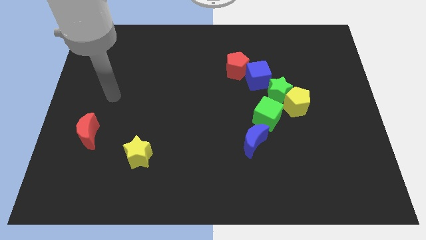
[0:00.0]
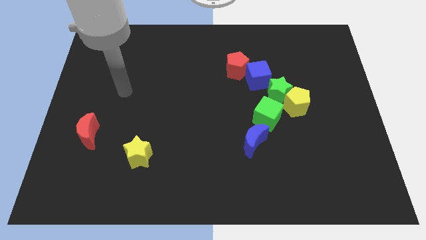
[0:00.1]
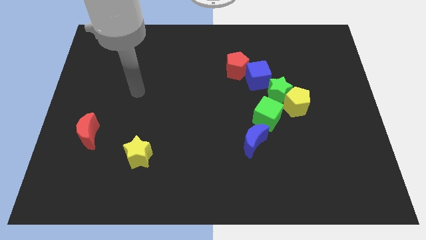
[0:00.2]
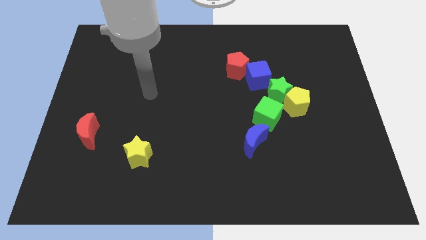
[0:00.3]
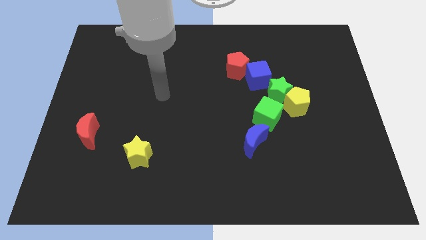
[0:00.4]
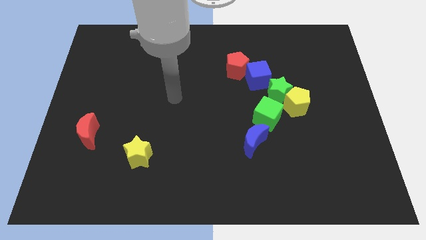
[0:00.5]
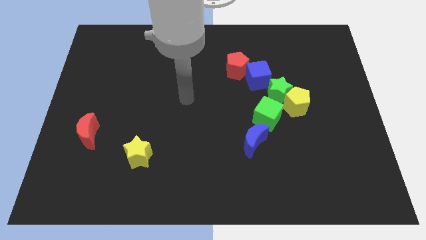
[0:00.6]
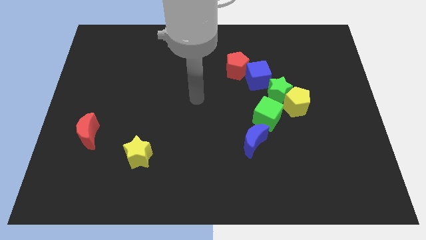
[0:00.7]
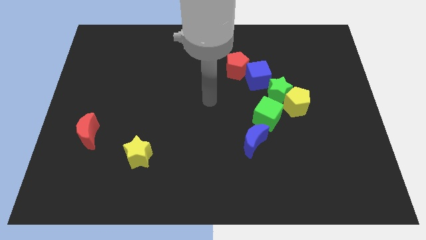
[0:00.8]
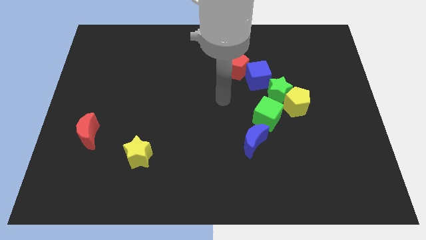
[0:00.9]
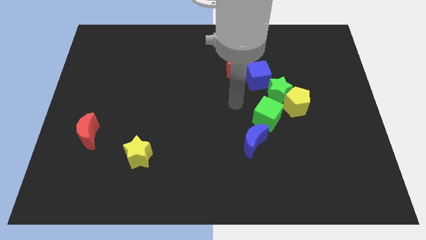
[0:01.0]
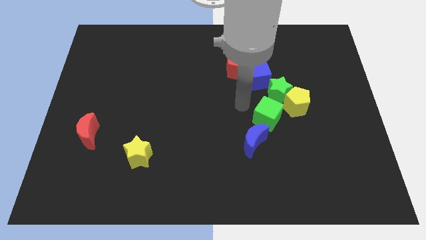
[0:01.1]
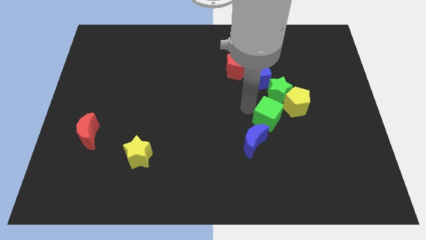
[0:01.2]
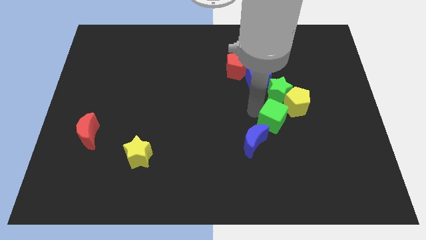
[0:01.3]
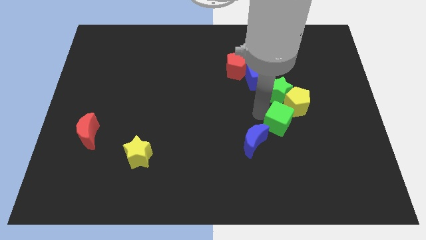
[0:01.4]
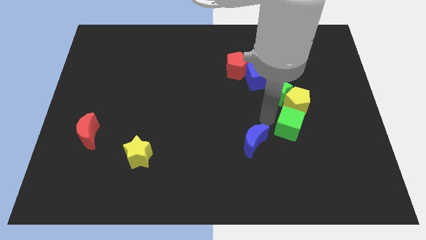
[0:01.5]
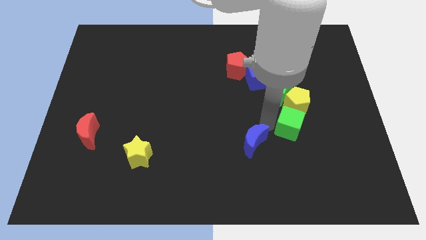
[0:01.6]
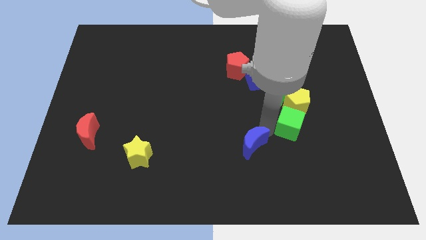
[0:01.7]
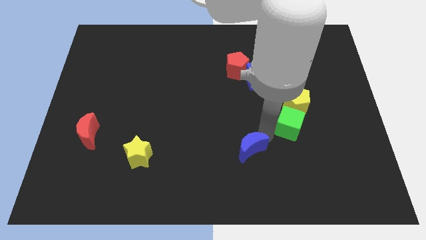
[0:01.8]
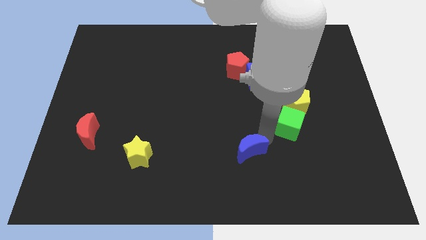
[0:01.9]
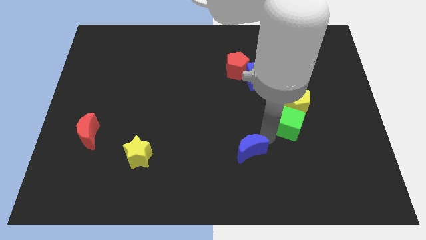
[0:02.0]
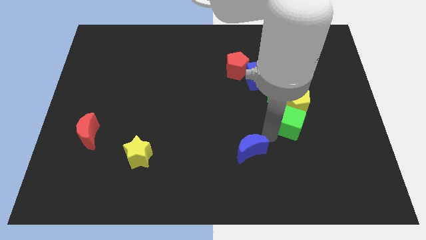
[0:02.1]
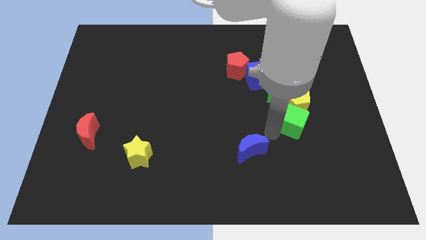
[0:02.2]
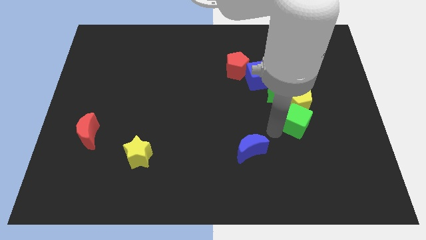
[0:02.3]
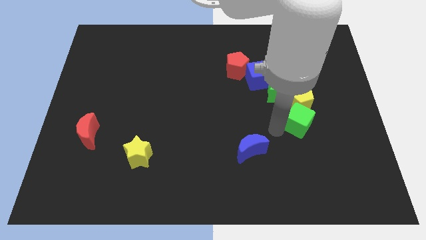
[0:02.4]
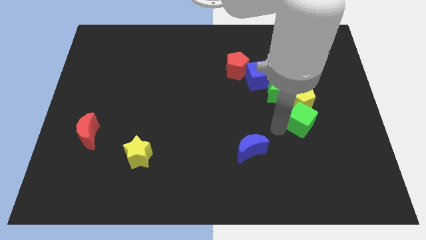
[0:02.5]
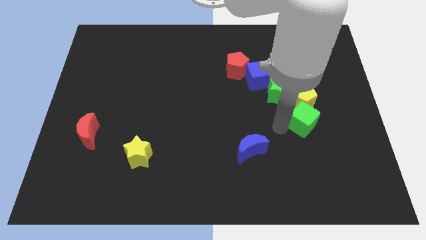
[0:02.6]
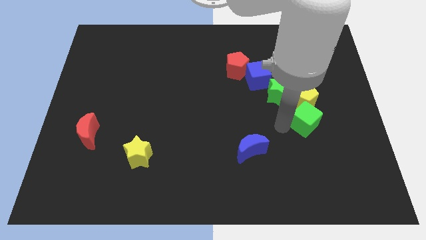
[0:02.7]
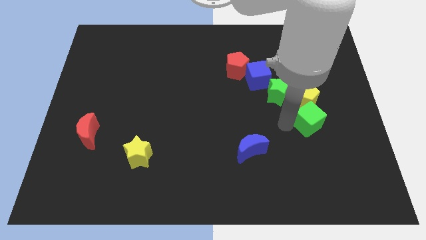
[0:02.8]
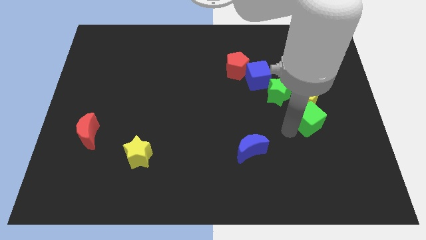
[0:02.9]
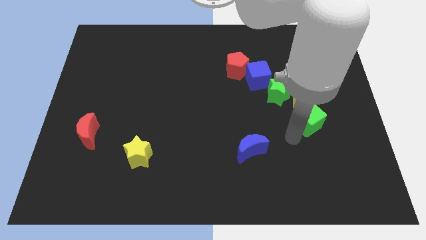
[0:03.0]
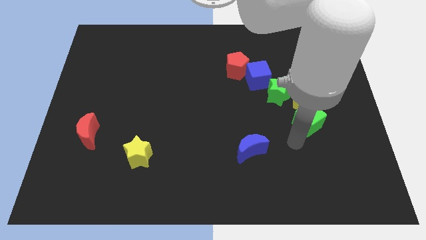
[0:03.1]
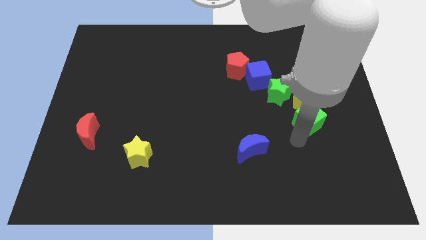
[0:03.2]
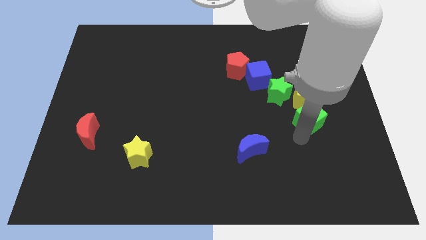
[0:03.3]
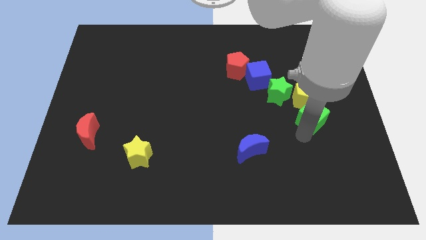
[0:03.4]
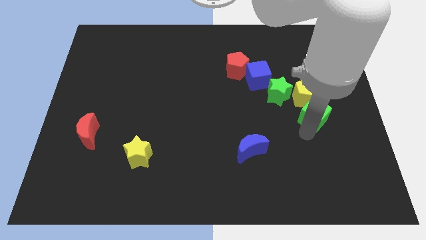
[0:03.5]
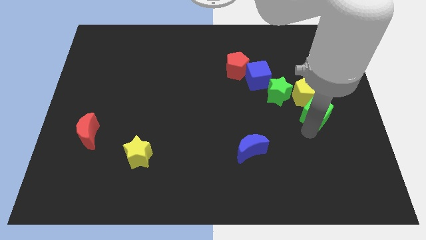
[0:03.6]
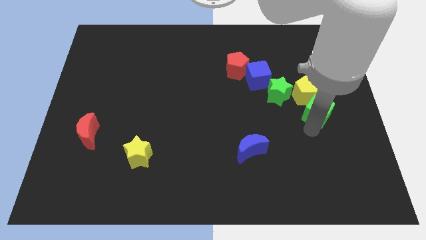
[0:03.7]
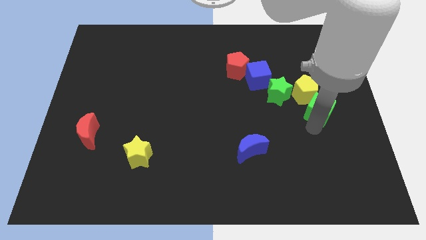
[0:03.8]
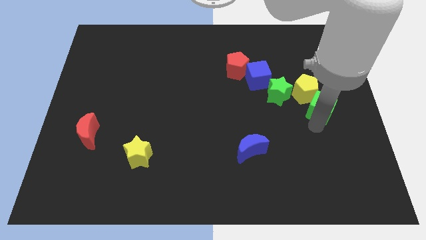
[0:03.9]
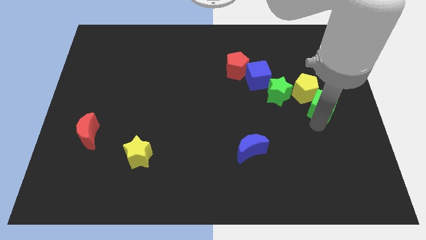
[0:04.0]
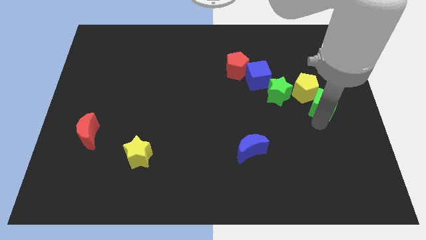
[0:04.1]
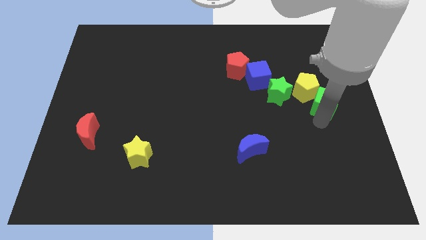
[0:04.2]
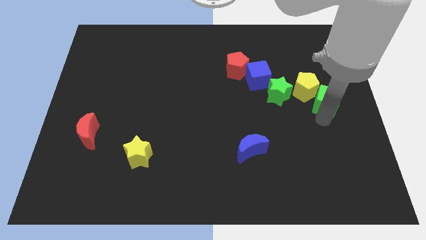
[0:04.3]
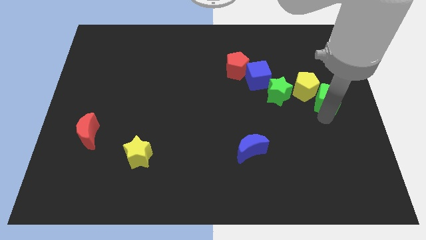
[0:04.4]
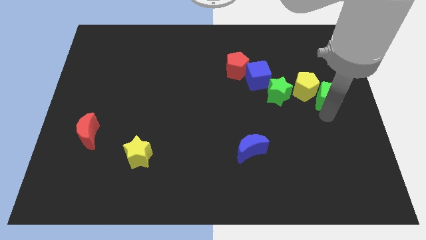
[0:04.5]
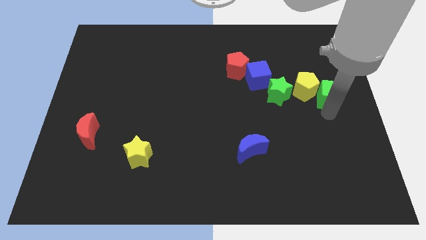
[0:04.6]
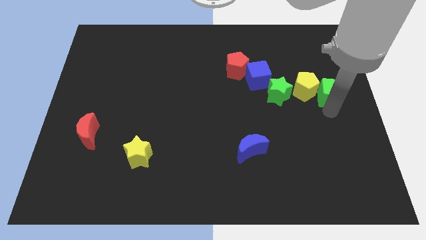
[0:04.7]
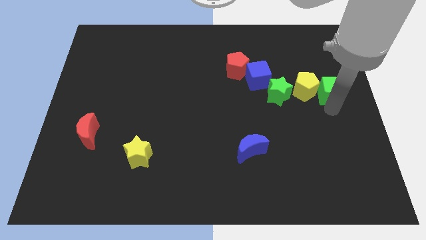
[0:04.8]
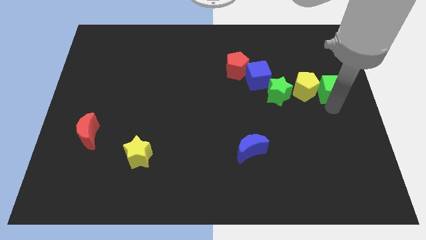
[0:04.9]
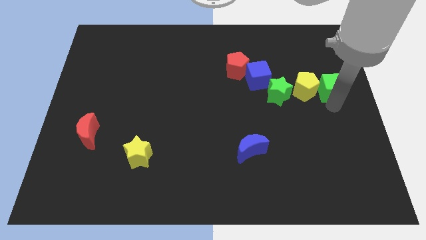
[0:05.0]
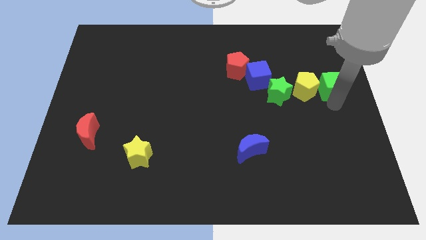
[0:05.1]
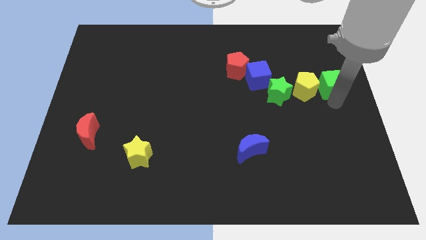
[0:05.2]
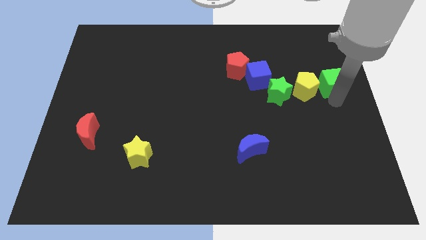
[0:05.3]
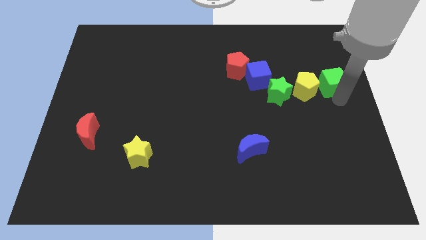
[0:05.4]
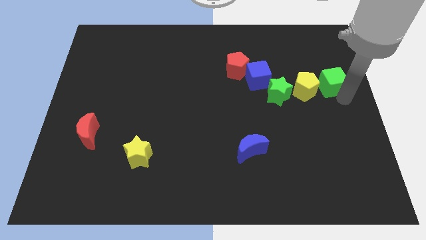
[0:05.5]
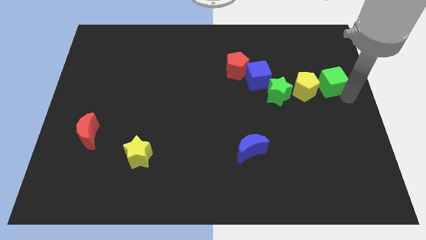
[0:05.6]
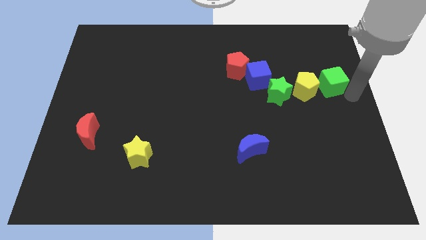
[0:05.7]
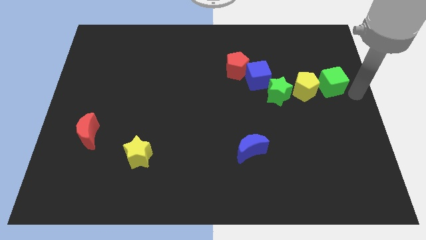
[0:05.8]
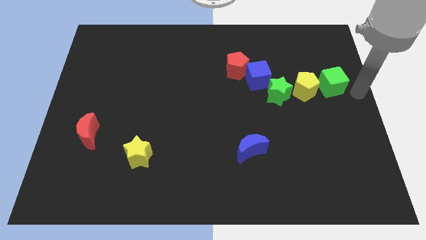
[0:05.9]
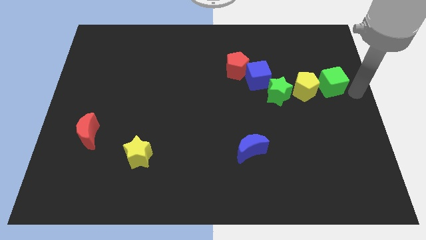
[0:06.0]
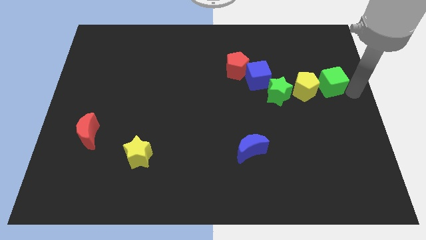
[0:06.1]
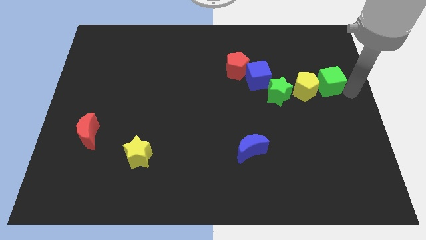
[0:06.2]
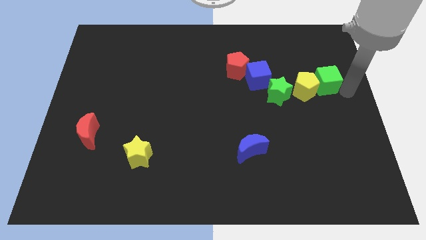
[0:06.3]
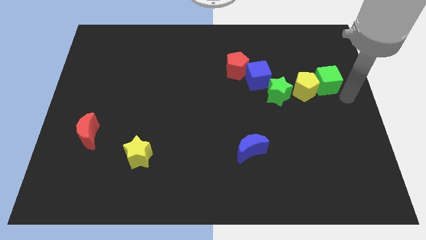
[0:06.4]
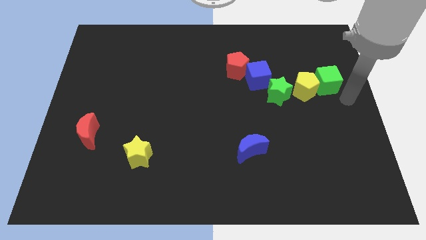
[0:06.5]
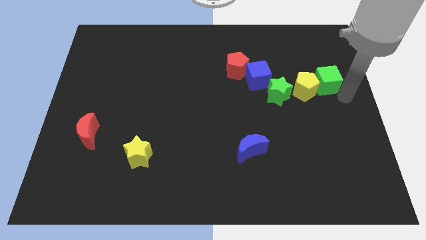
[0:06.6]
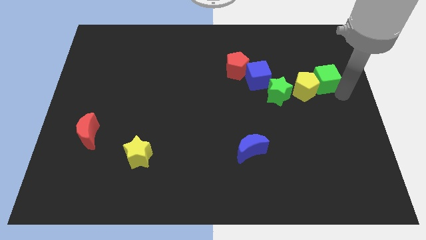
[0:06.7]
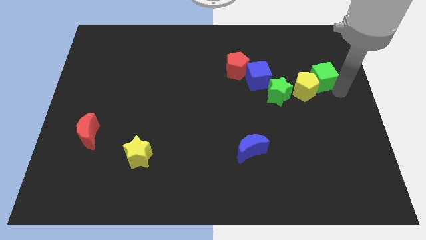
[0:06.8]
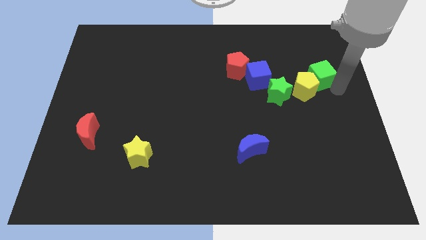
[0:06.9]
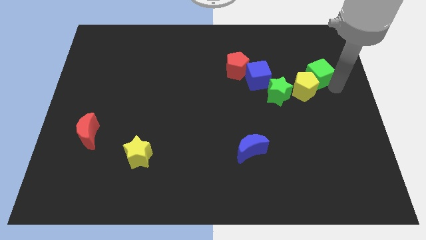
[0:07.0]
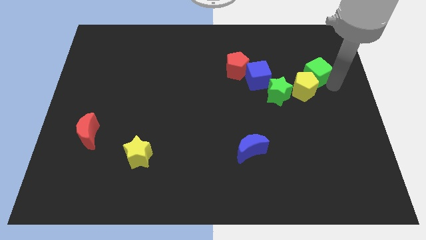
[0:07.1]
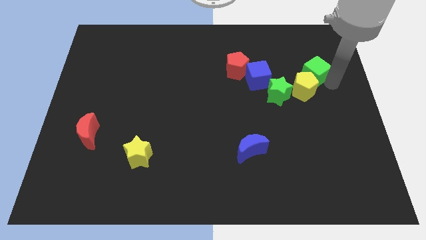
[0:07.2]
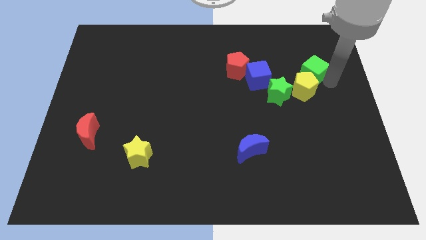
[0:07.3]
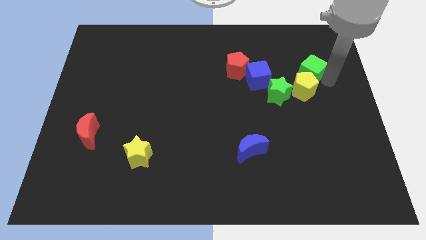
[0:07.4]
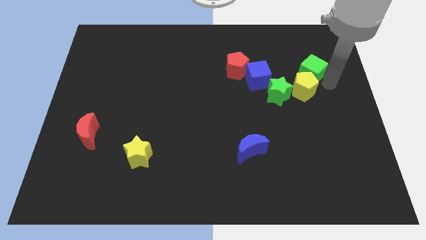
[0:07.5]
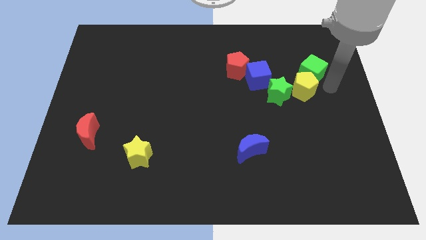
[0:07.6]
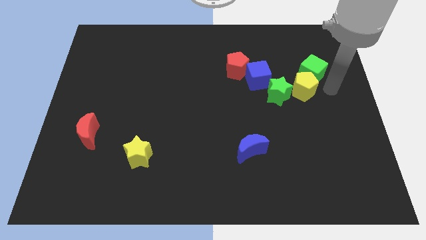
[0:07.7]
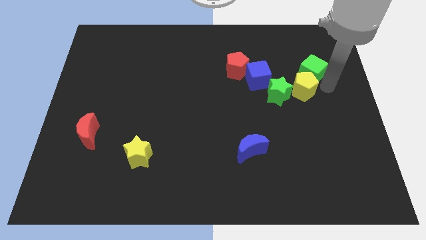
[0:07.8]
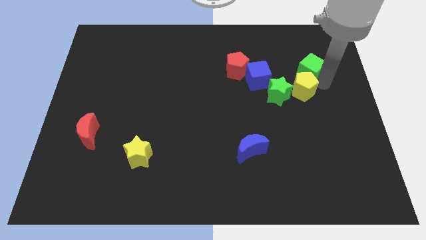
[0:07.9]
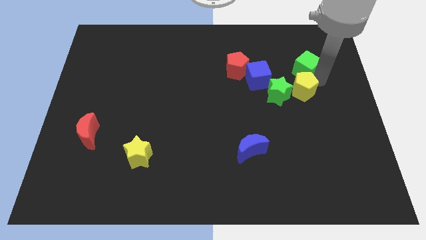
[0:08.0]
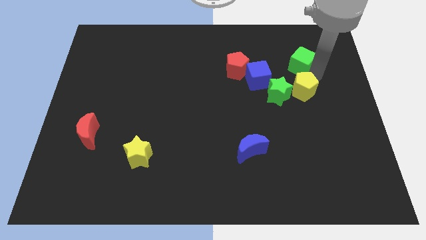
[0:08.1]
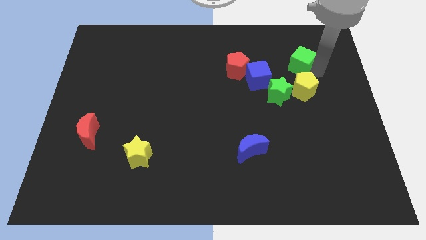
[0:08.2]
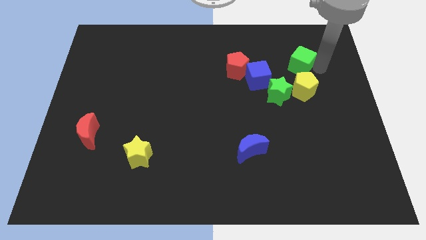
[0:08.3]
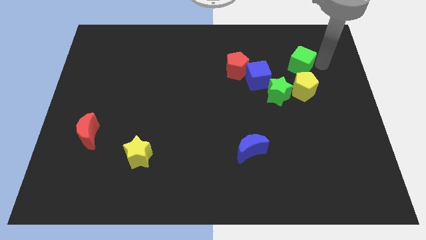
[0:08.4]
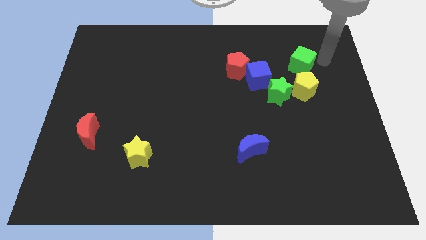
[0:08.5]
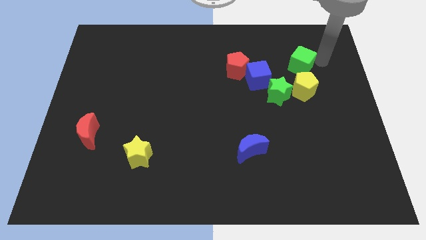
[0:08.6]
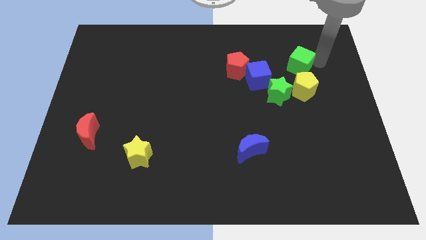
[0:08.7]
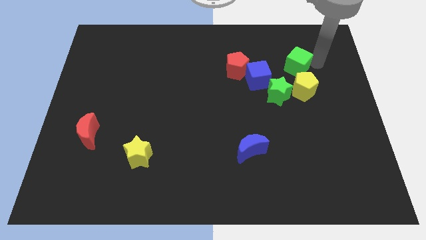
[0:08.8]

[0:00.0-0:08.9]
move the green cube just right of the red pentagon
